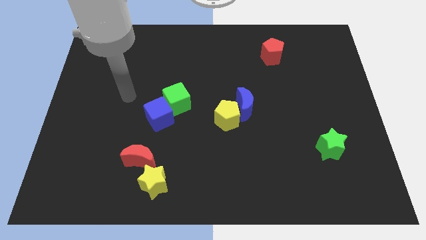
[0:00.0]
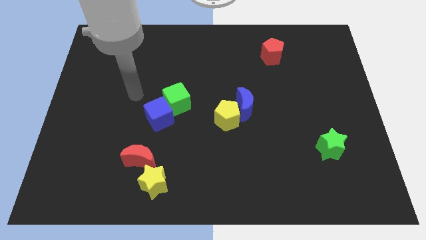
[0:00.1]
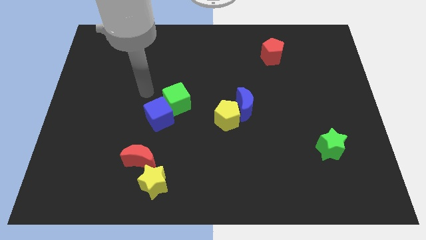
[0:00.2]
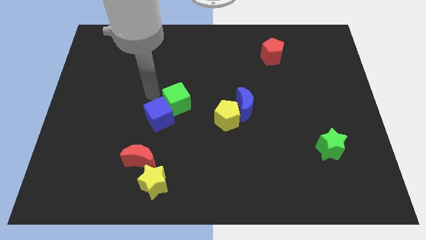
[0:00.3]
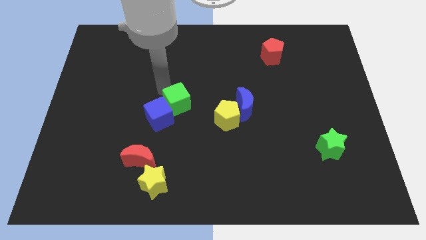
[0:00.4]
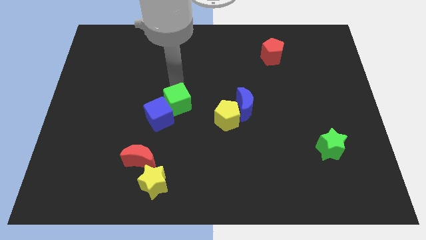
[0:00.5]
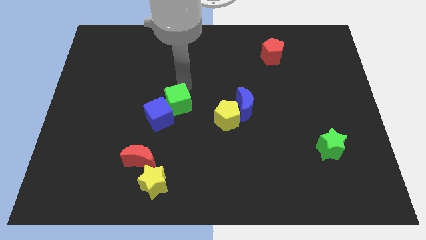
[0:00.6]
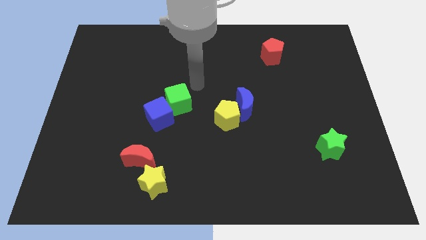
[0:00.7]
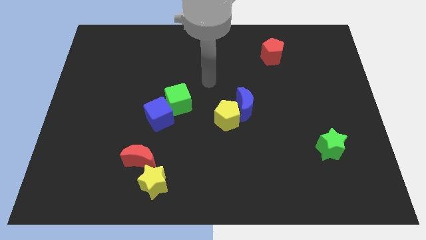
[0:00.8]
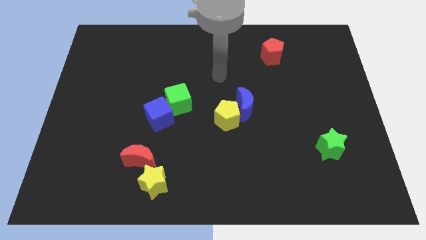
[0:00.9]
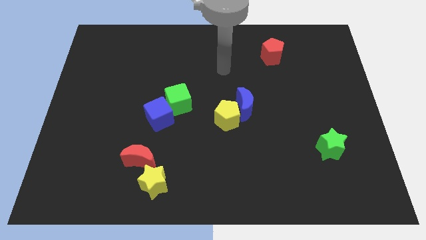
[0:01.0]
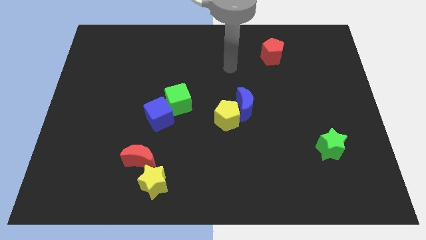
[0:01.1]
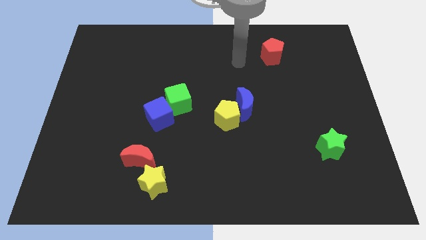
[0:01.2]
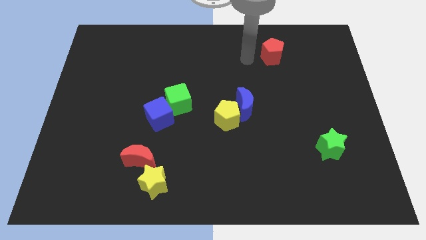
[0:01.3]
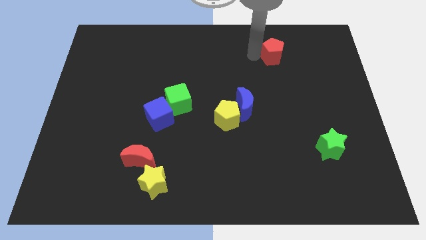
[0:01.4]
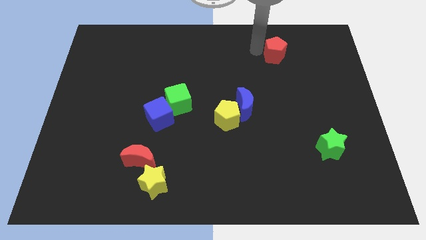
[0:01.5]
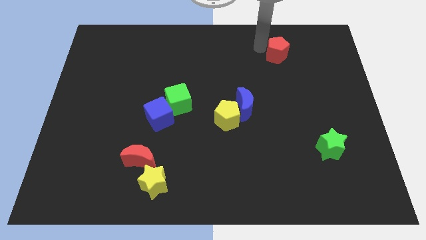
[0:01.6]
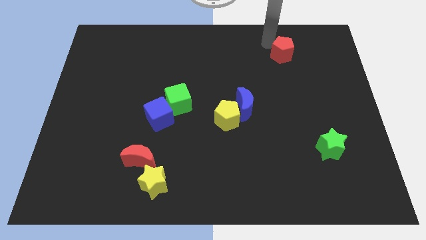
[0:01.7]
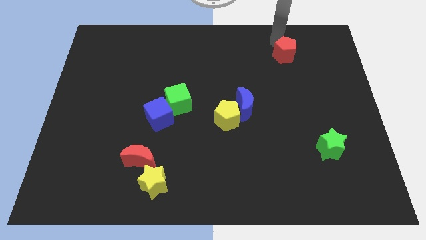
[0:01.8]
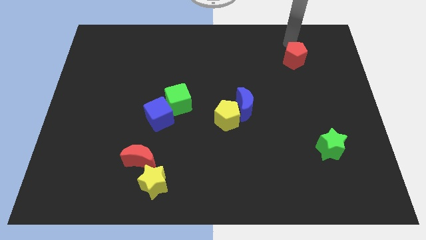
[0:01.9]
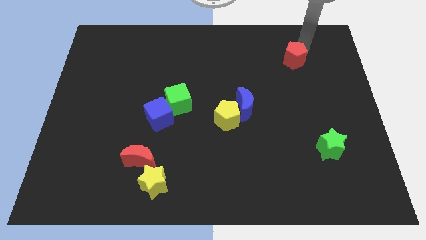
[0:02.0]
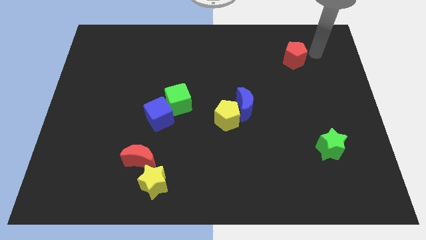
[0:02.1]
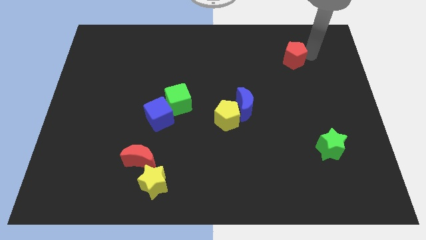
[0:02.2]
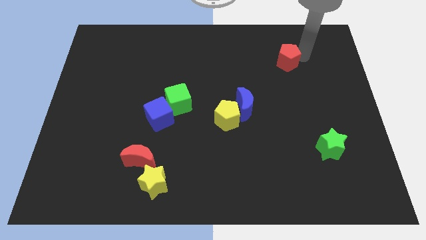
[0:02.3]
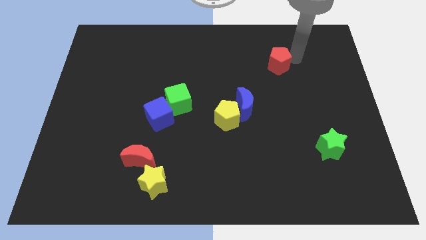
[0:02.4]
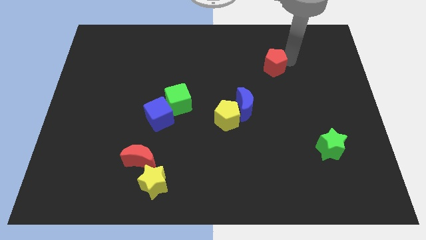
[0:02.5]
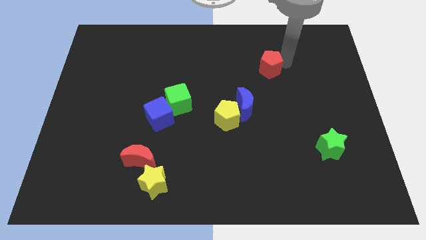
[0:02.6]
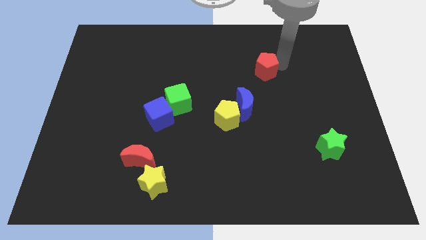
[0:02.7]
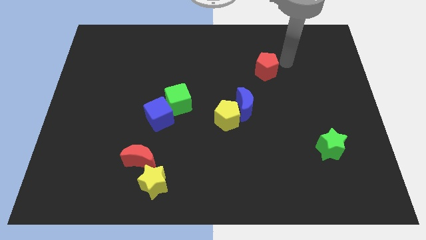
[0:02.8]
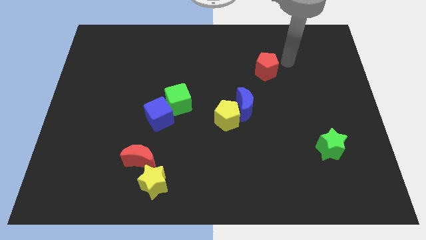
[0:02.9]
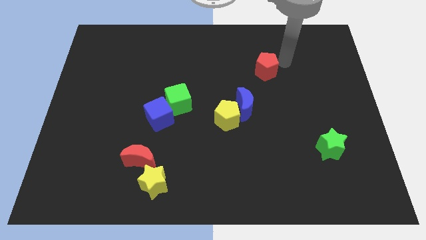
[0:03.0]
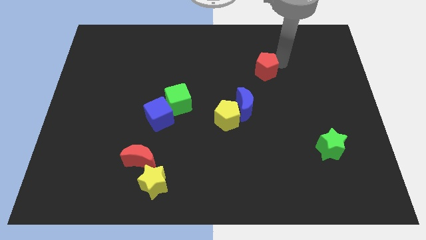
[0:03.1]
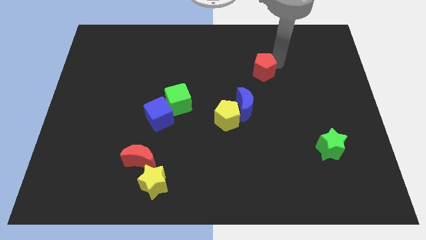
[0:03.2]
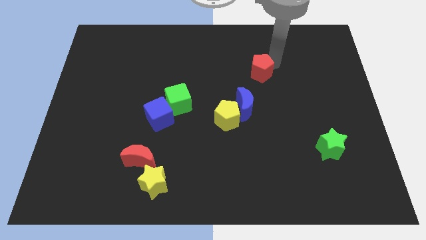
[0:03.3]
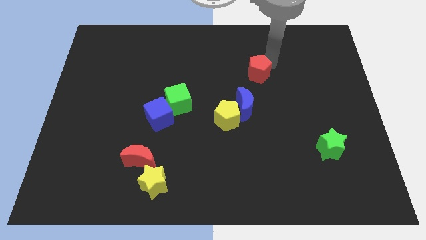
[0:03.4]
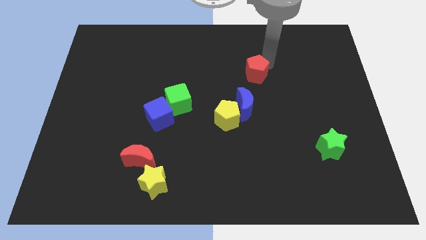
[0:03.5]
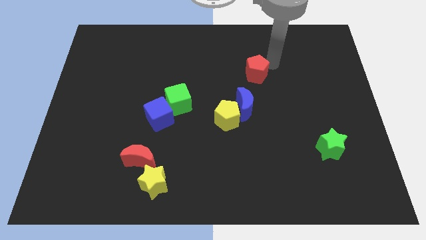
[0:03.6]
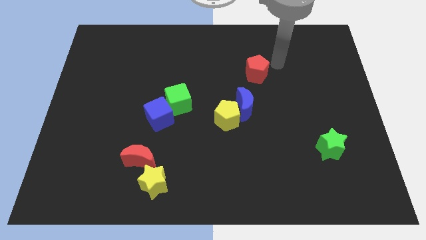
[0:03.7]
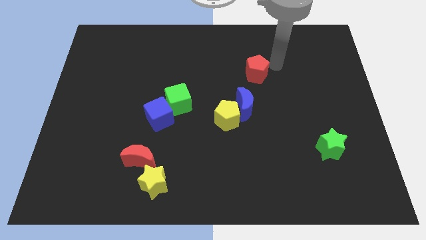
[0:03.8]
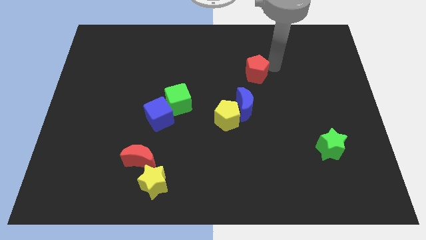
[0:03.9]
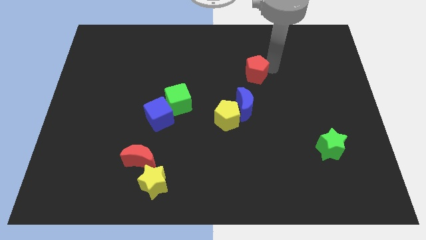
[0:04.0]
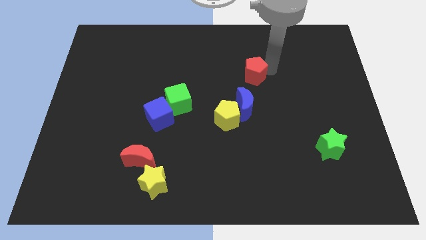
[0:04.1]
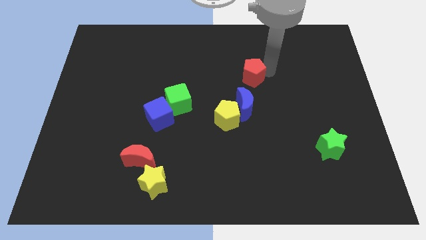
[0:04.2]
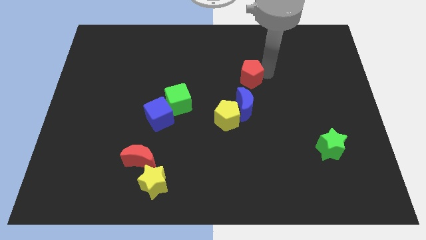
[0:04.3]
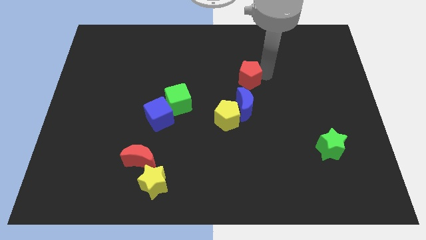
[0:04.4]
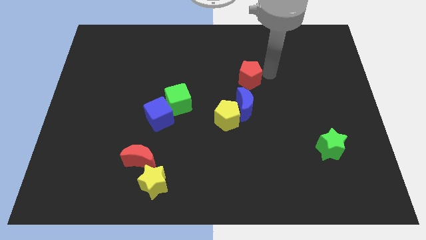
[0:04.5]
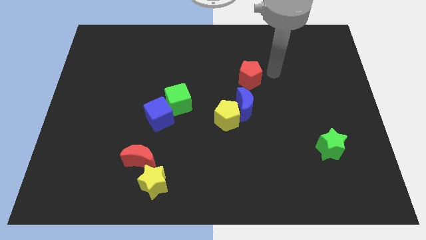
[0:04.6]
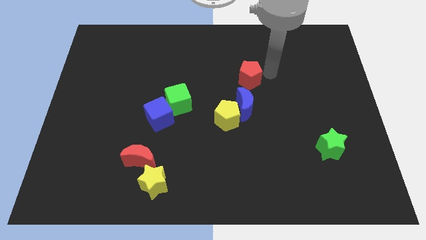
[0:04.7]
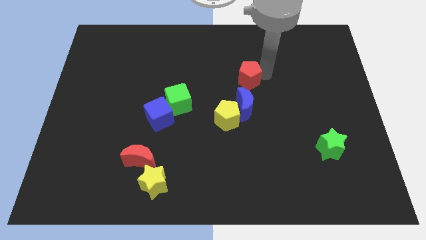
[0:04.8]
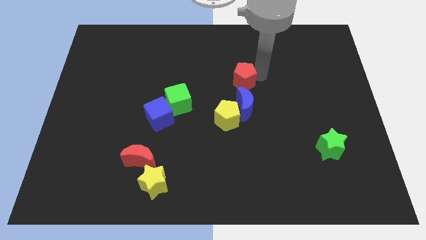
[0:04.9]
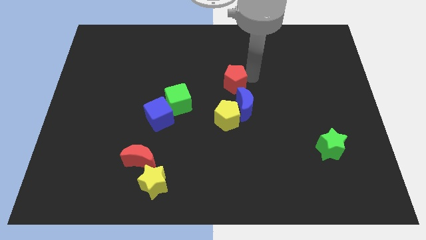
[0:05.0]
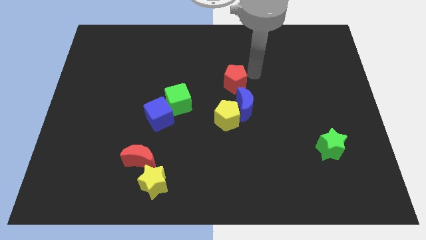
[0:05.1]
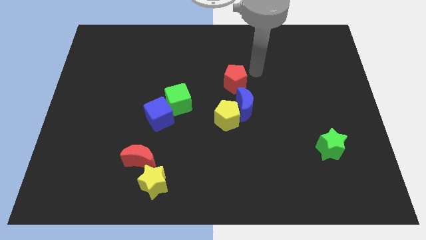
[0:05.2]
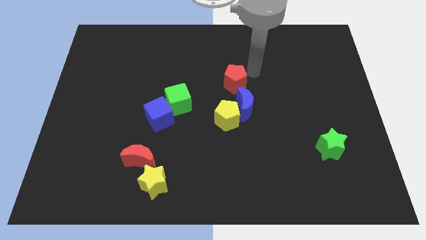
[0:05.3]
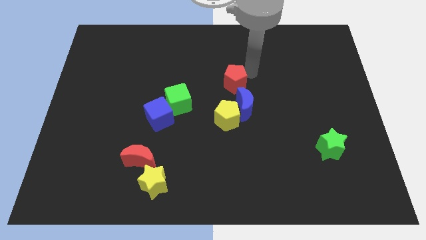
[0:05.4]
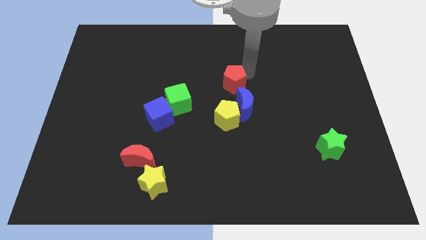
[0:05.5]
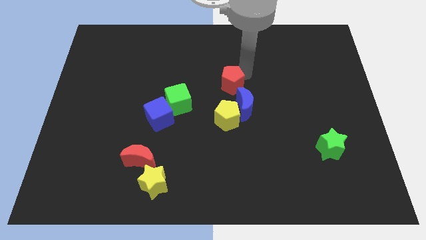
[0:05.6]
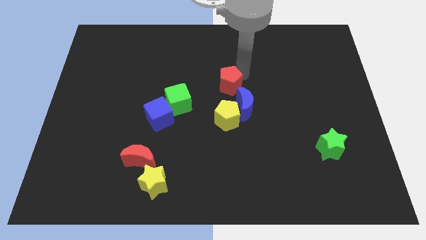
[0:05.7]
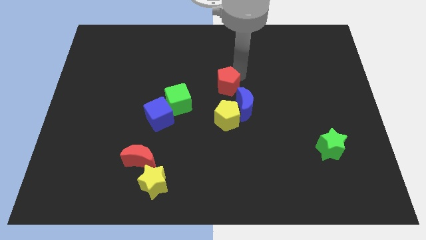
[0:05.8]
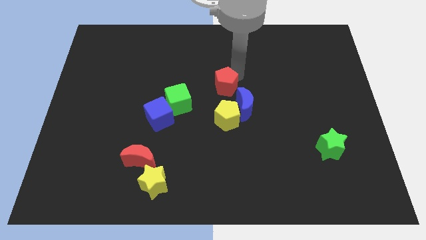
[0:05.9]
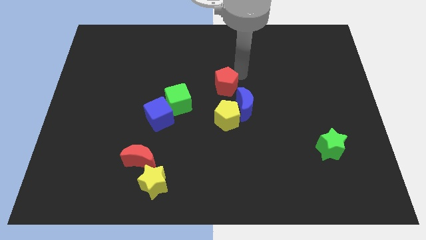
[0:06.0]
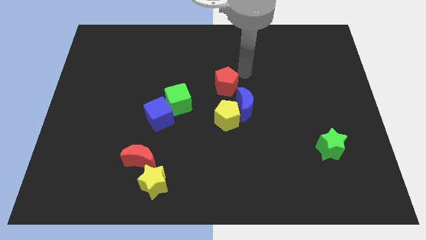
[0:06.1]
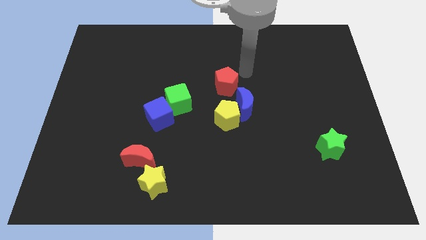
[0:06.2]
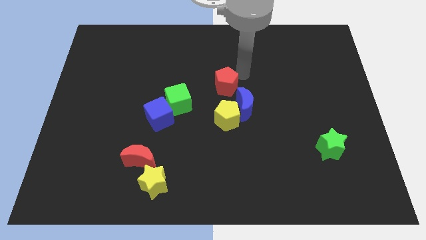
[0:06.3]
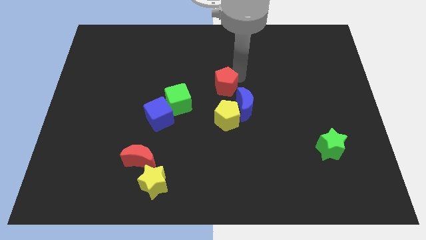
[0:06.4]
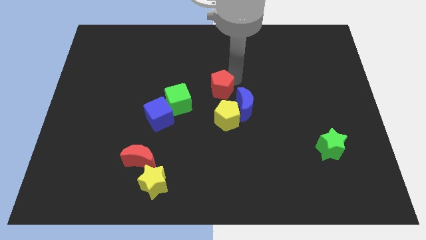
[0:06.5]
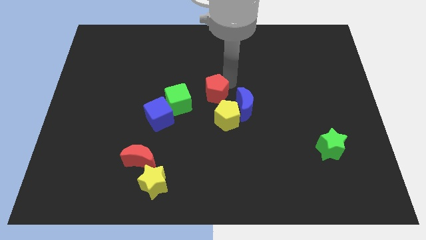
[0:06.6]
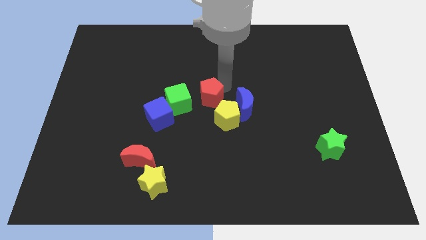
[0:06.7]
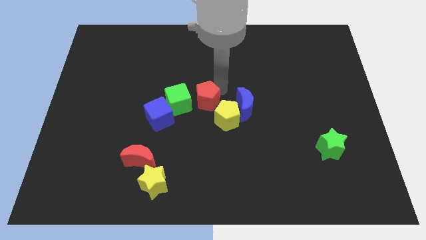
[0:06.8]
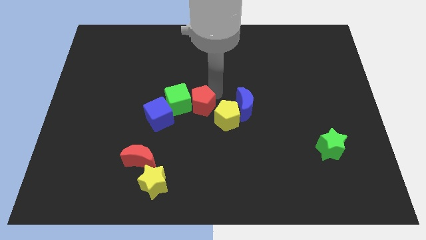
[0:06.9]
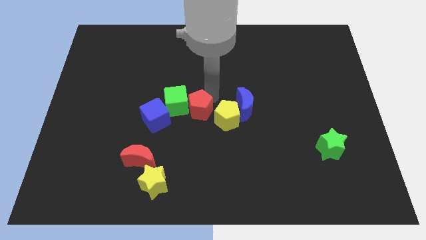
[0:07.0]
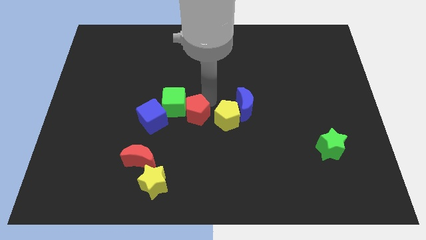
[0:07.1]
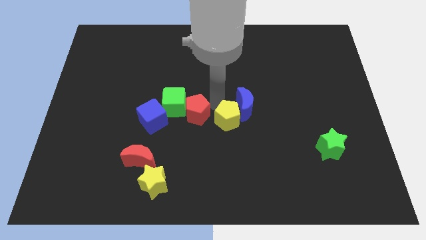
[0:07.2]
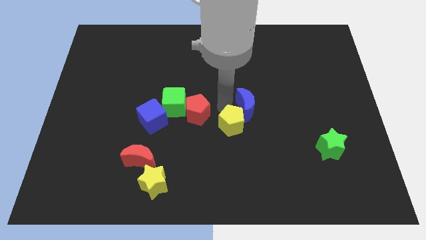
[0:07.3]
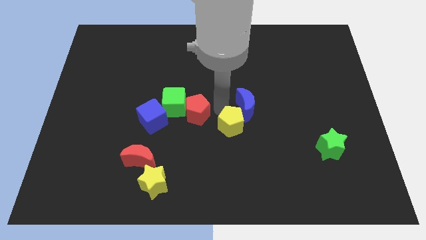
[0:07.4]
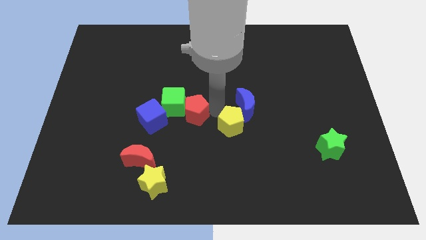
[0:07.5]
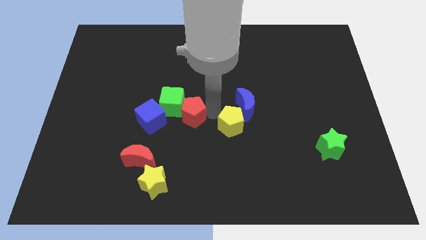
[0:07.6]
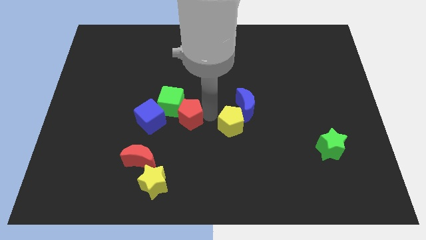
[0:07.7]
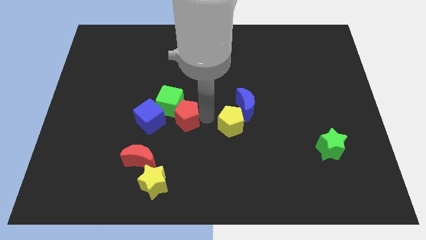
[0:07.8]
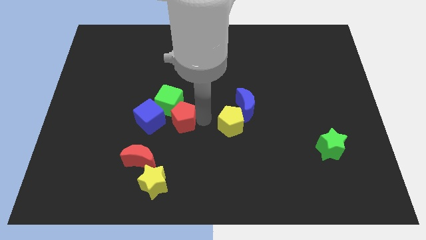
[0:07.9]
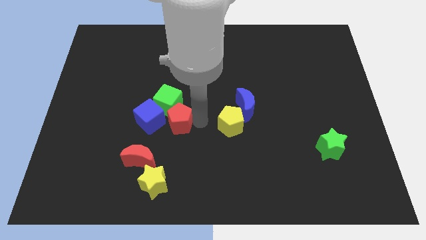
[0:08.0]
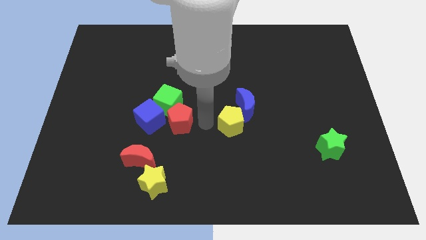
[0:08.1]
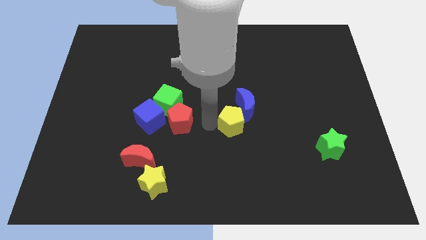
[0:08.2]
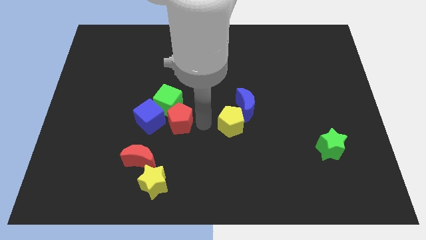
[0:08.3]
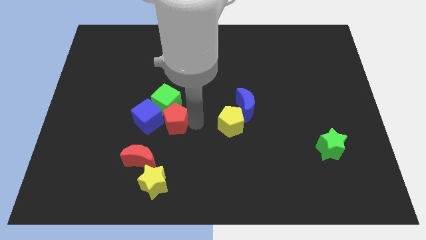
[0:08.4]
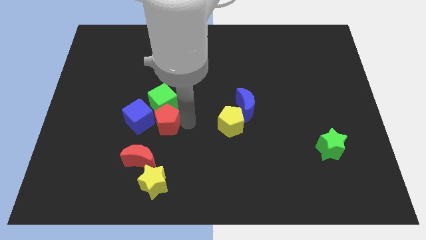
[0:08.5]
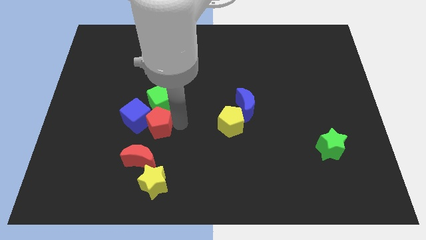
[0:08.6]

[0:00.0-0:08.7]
move the red pentagon towards the blue cube
